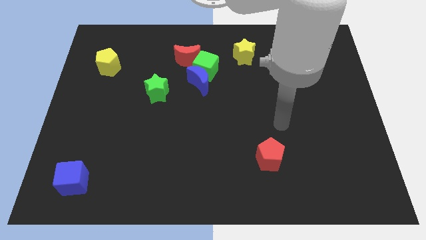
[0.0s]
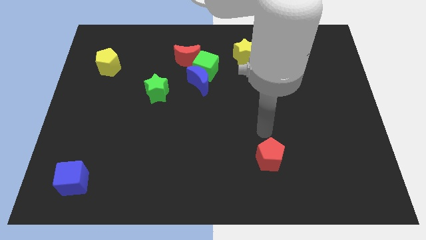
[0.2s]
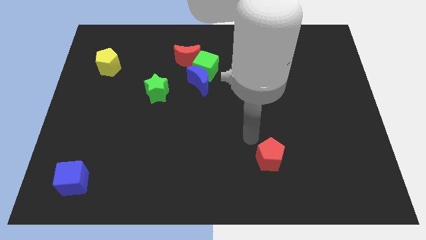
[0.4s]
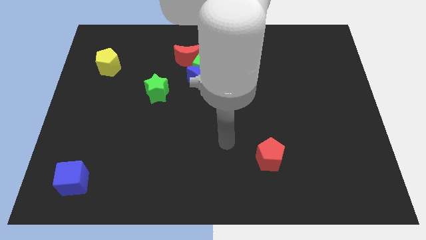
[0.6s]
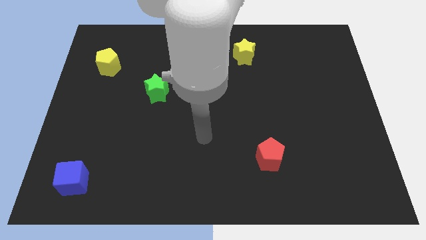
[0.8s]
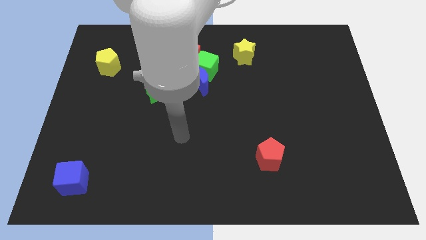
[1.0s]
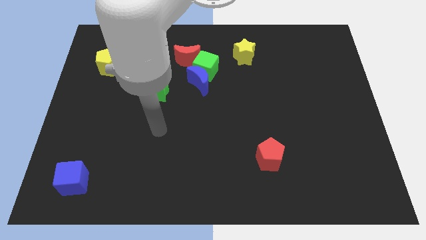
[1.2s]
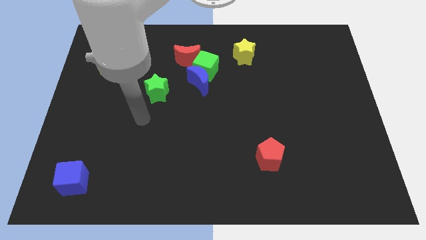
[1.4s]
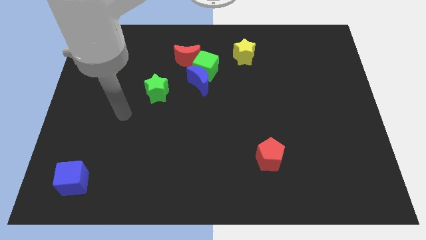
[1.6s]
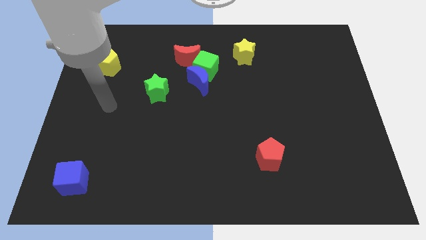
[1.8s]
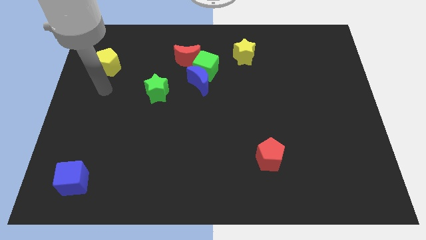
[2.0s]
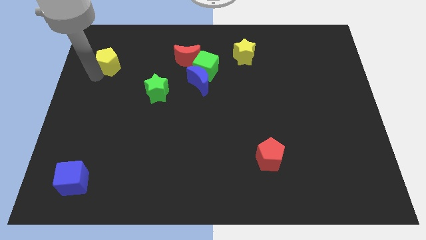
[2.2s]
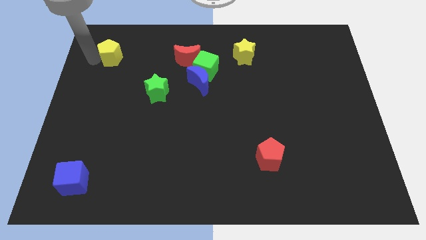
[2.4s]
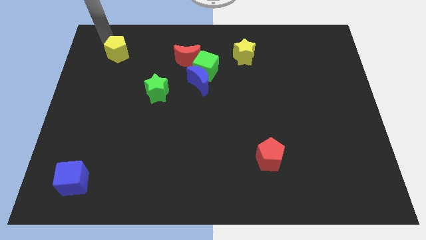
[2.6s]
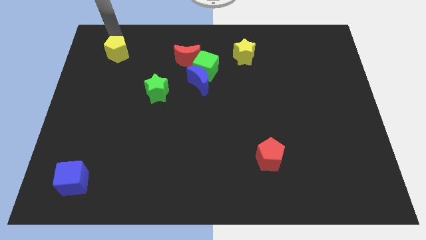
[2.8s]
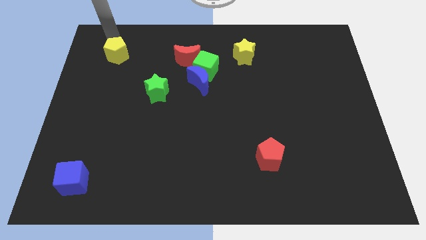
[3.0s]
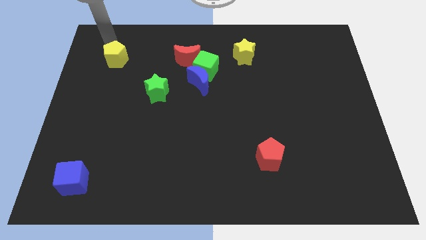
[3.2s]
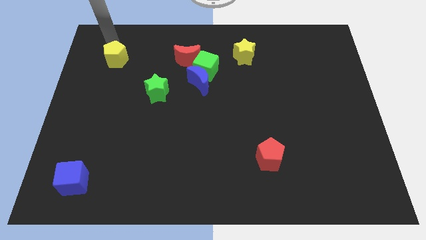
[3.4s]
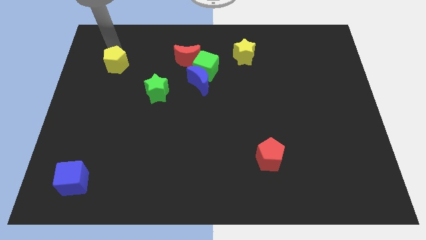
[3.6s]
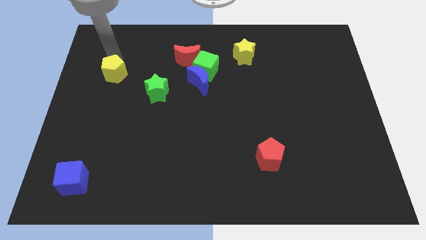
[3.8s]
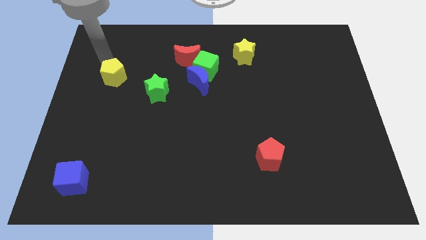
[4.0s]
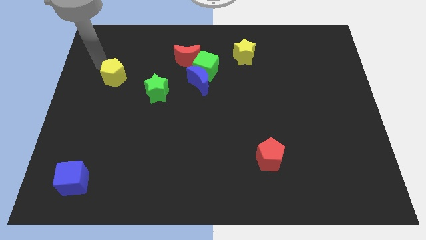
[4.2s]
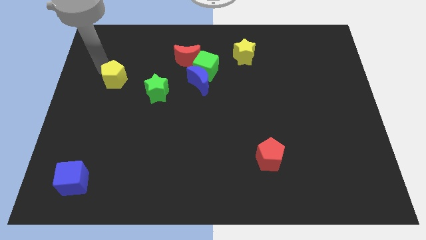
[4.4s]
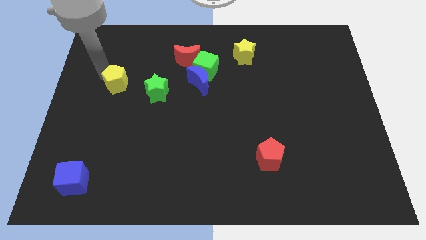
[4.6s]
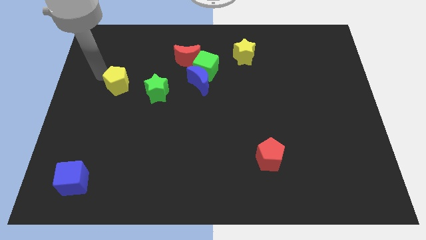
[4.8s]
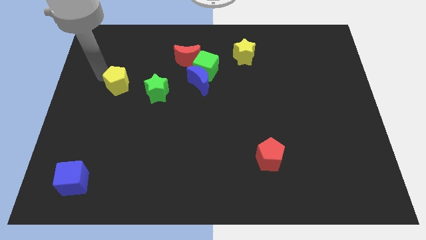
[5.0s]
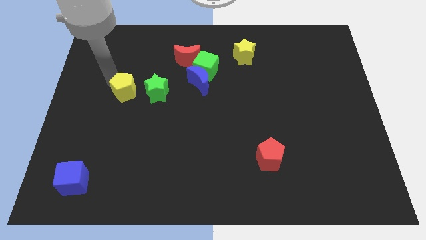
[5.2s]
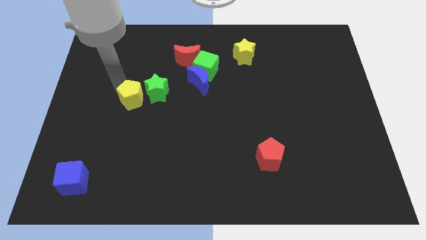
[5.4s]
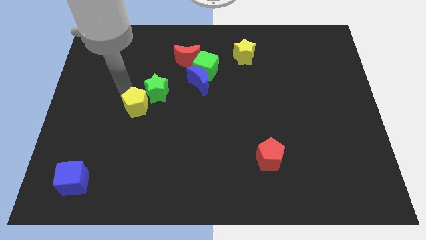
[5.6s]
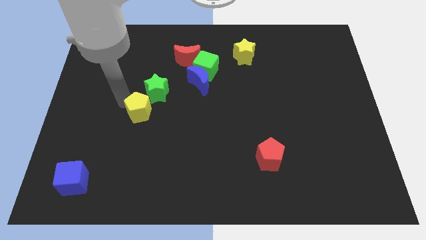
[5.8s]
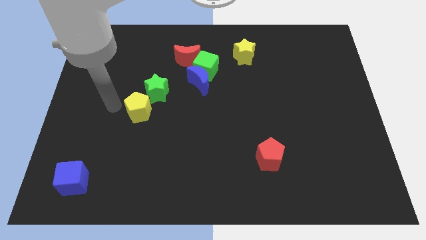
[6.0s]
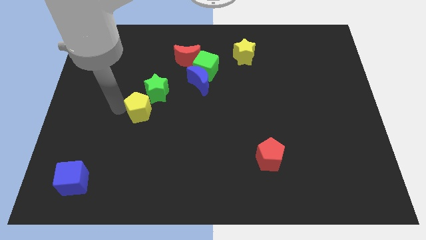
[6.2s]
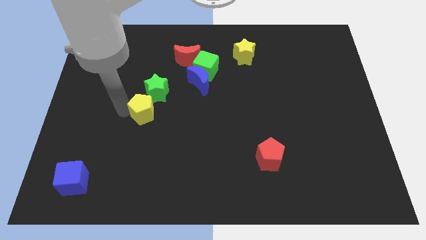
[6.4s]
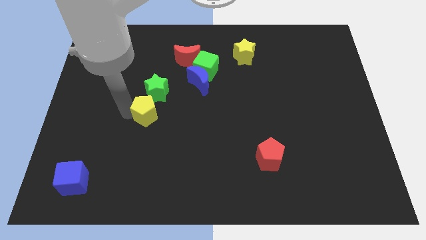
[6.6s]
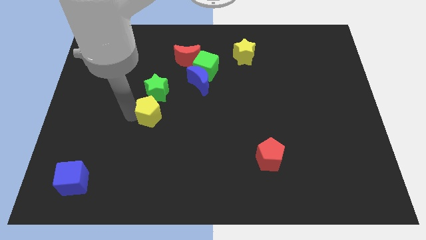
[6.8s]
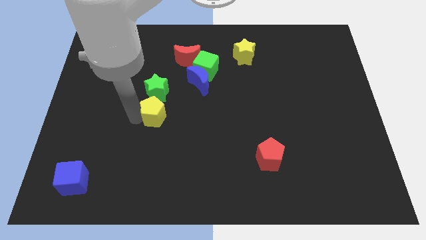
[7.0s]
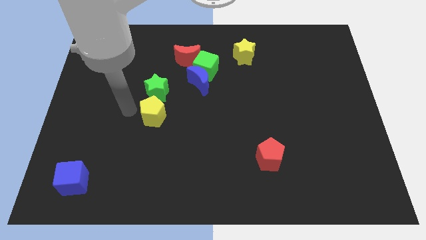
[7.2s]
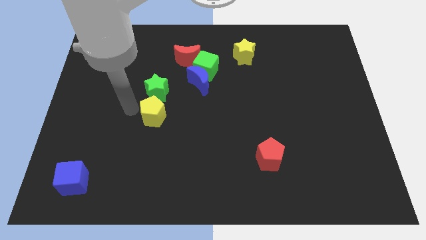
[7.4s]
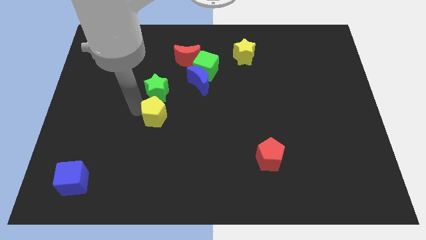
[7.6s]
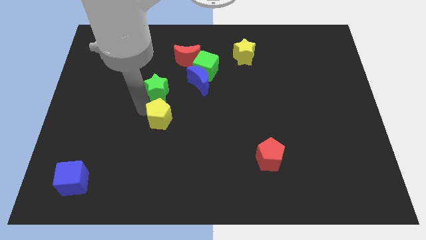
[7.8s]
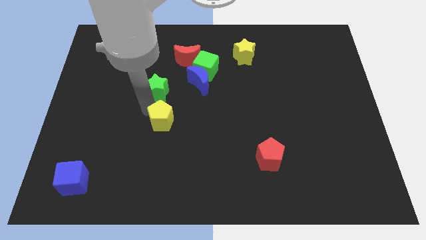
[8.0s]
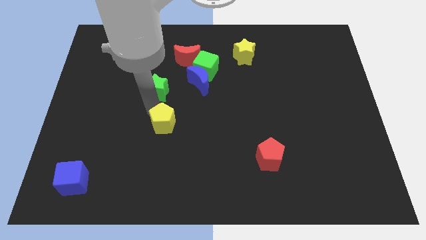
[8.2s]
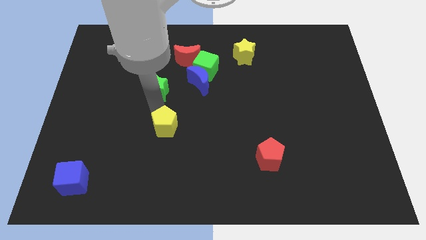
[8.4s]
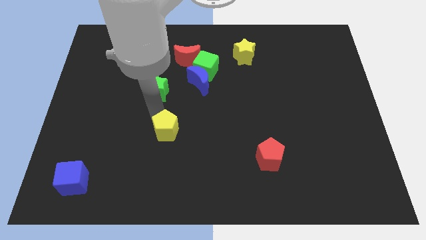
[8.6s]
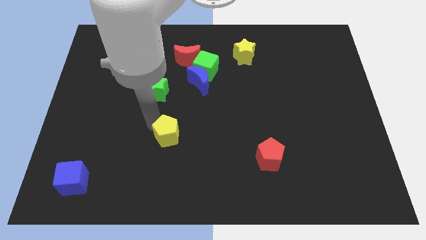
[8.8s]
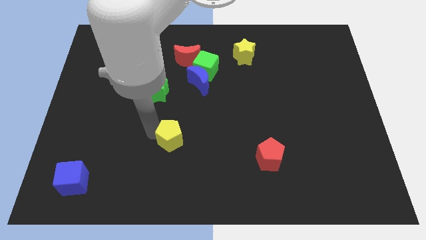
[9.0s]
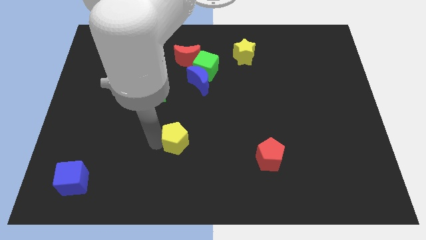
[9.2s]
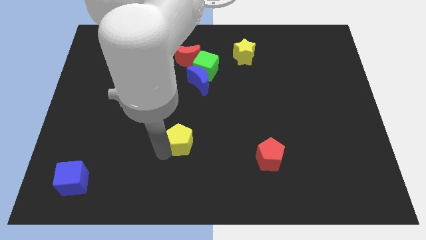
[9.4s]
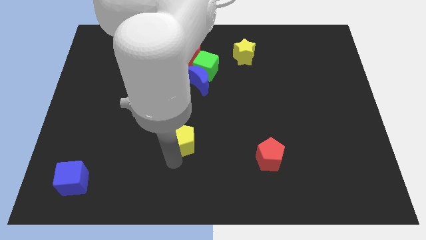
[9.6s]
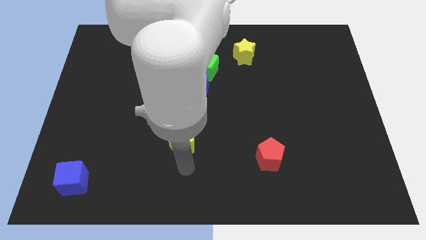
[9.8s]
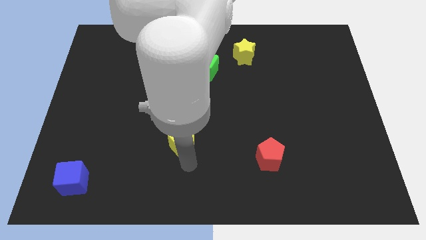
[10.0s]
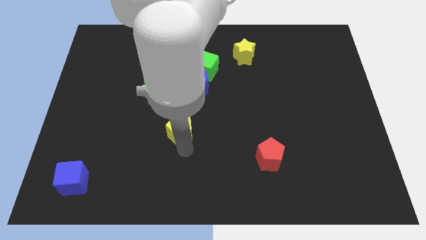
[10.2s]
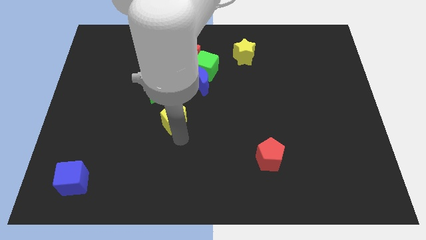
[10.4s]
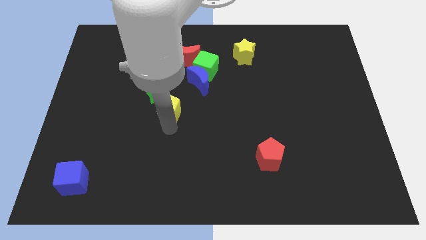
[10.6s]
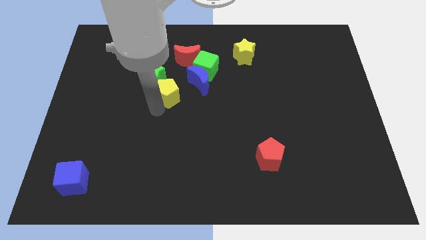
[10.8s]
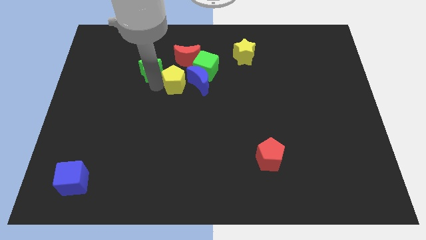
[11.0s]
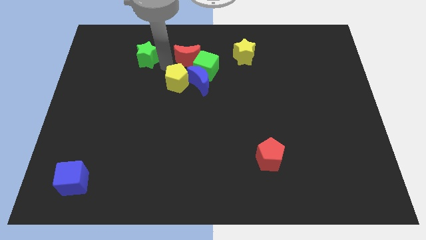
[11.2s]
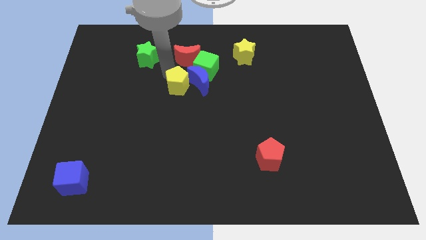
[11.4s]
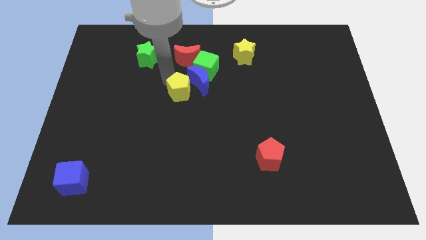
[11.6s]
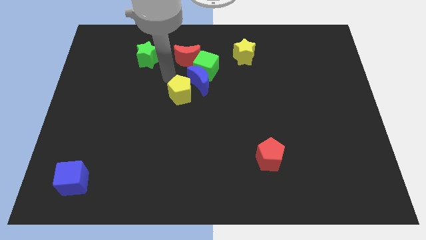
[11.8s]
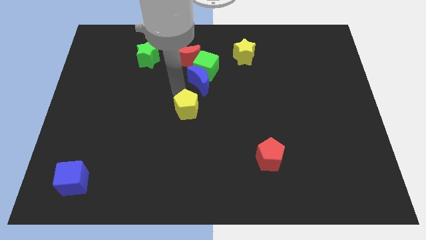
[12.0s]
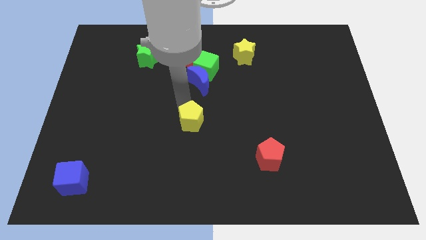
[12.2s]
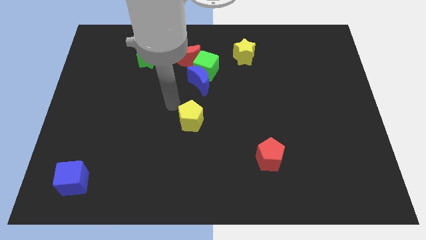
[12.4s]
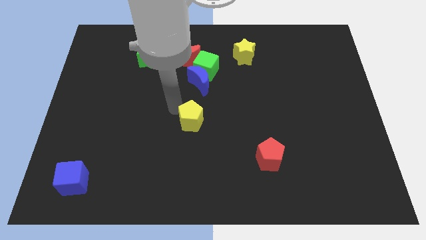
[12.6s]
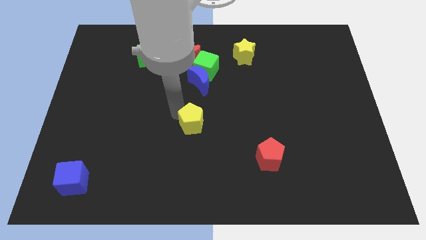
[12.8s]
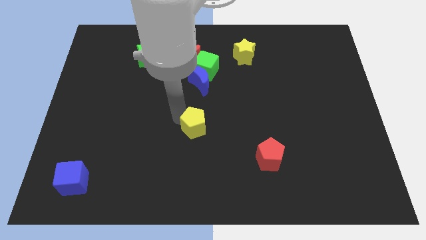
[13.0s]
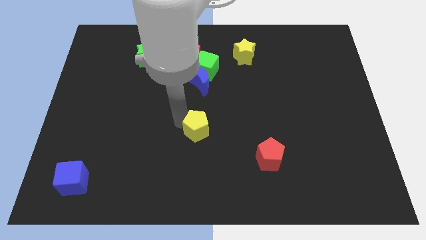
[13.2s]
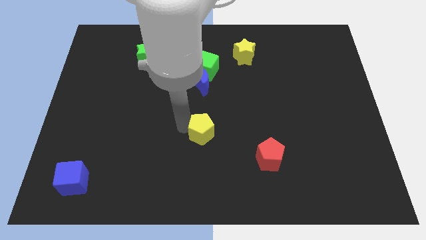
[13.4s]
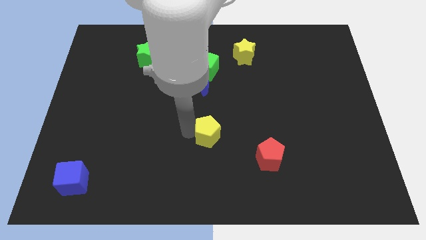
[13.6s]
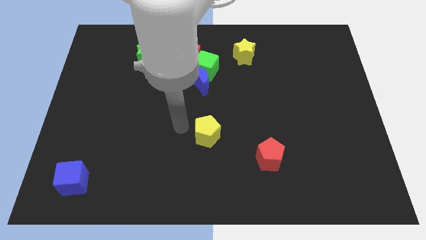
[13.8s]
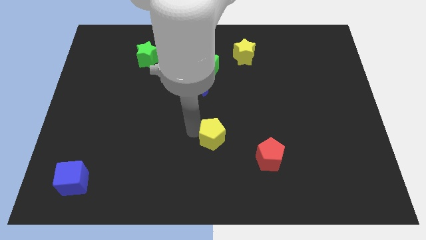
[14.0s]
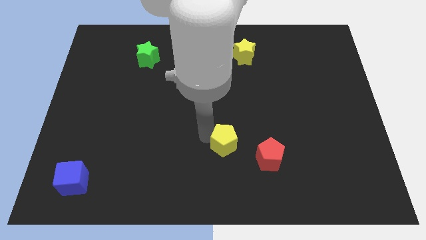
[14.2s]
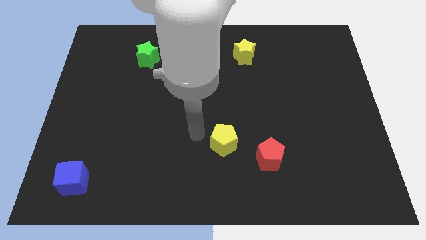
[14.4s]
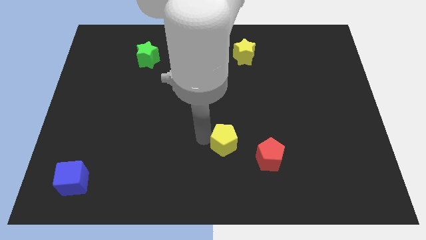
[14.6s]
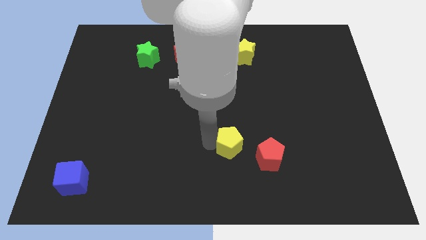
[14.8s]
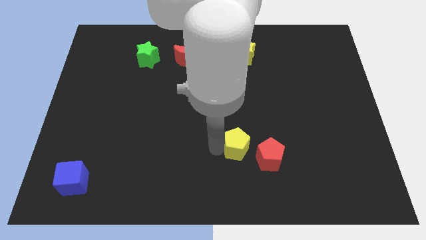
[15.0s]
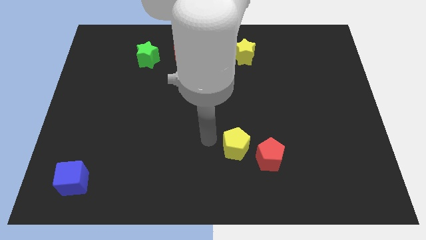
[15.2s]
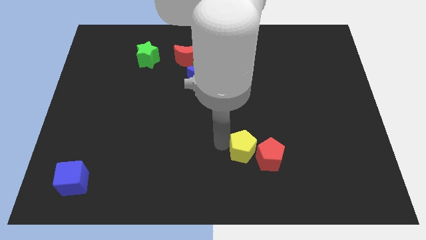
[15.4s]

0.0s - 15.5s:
move the yellow pentagon towards the red pentagon
